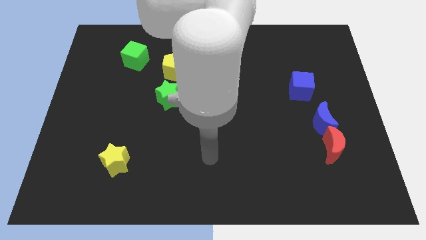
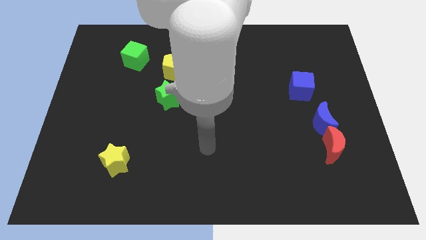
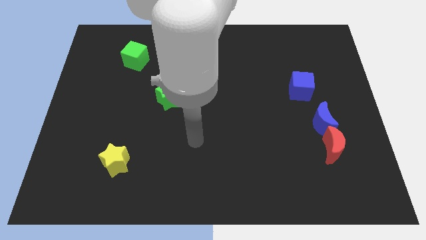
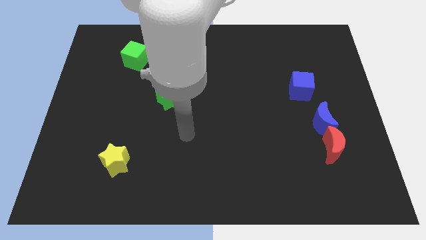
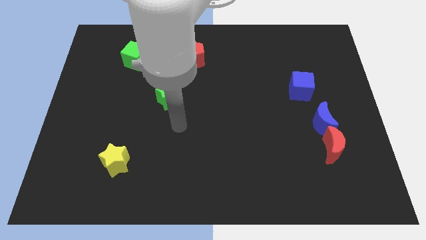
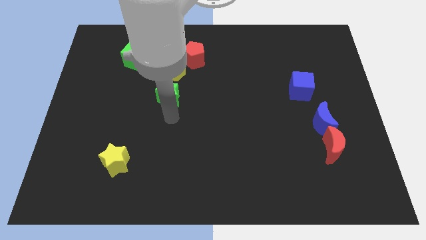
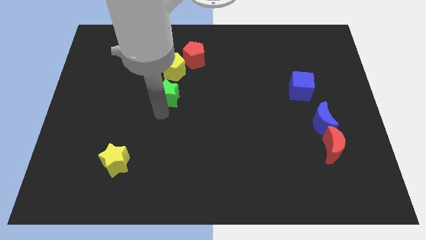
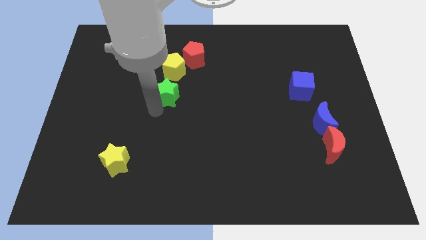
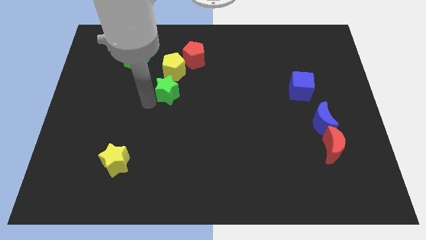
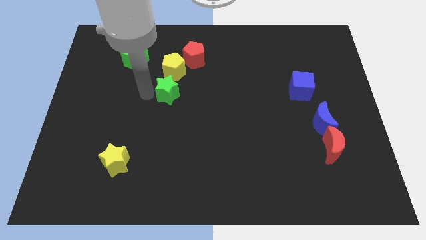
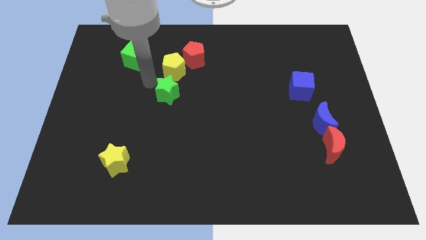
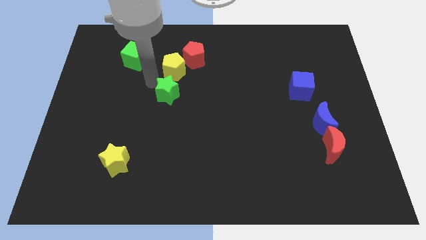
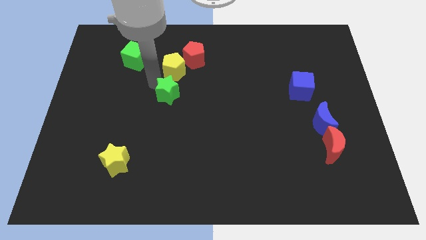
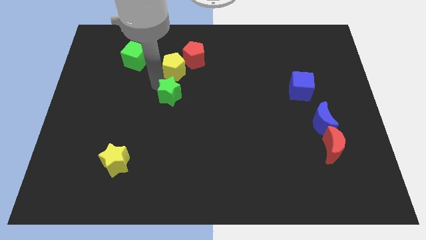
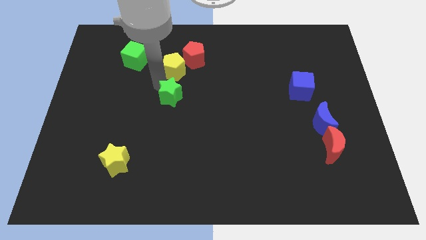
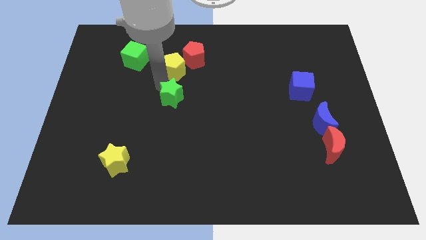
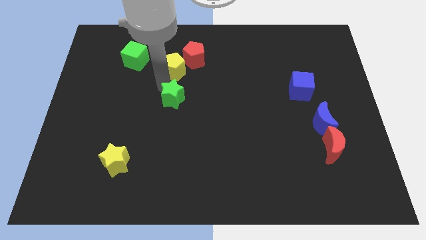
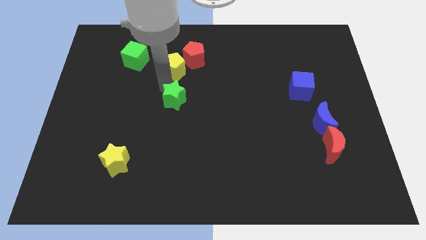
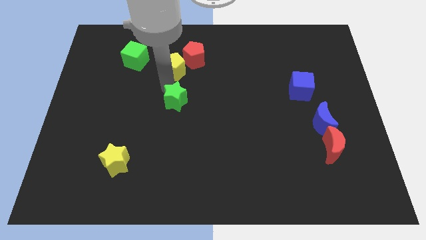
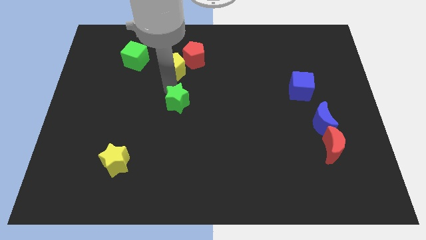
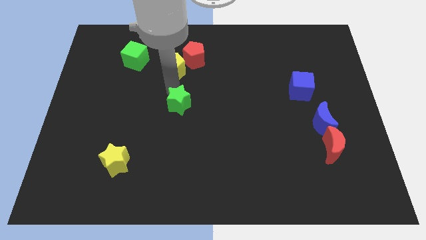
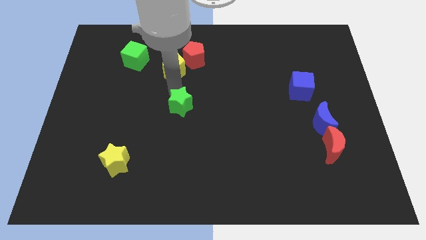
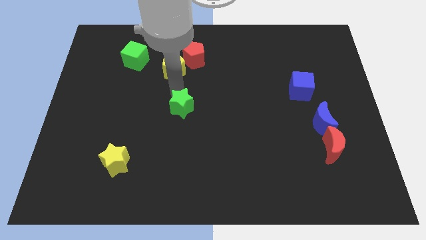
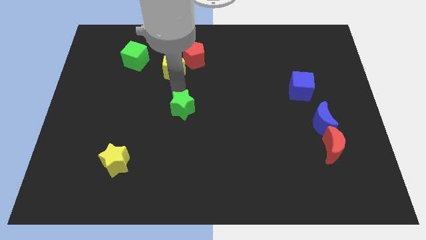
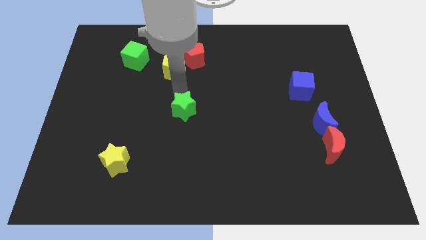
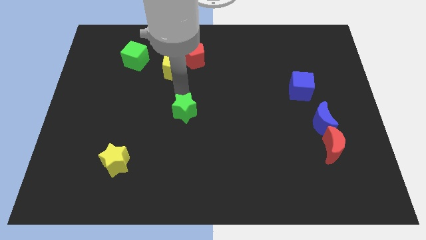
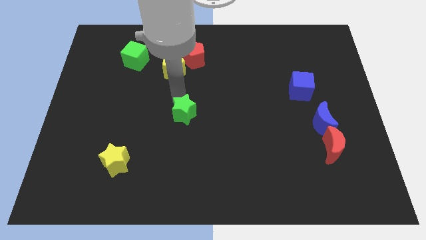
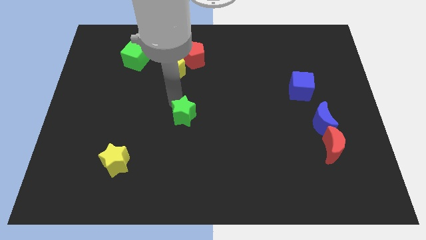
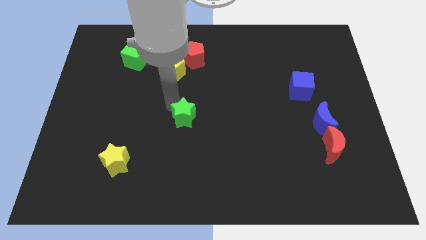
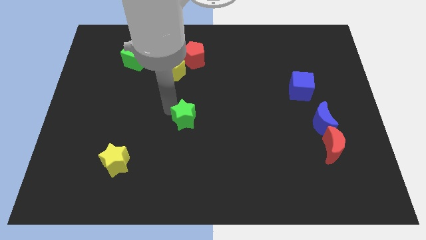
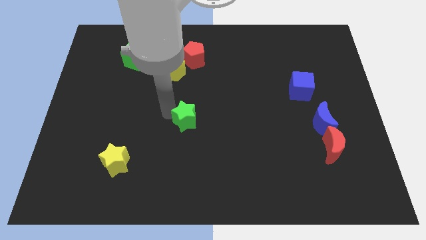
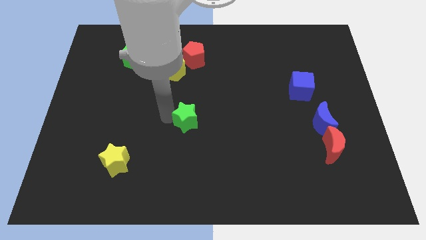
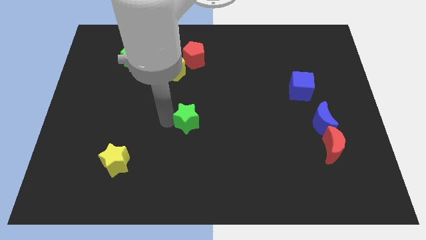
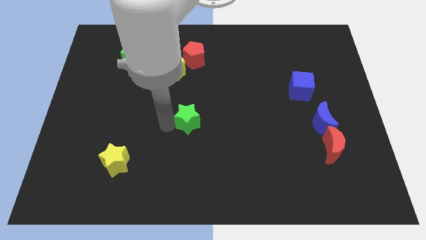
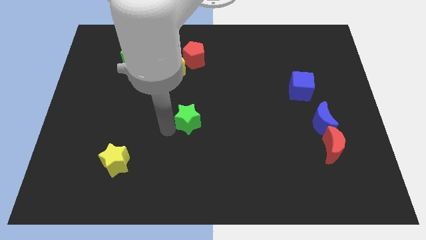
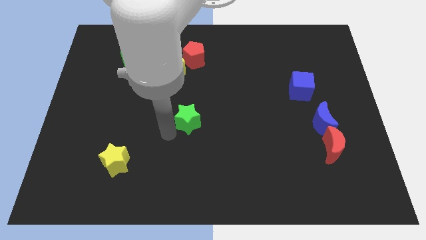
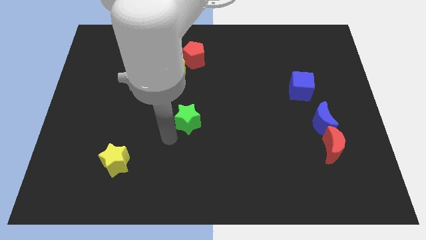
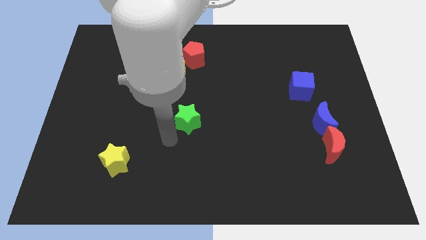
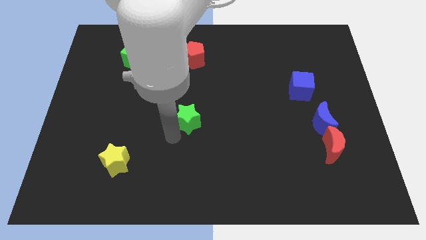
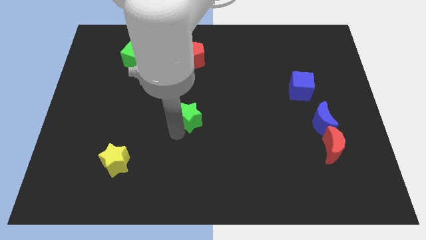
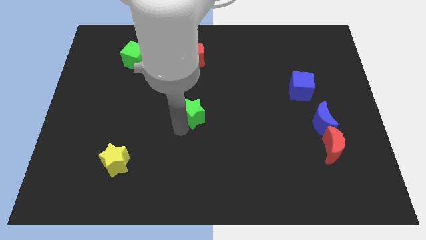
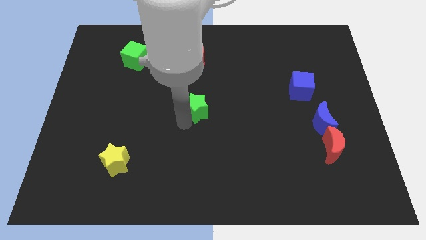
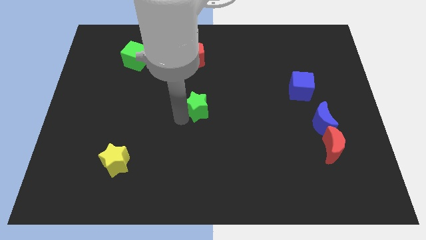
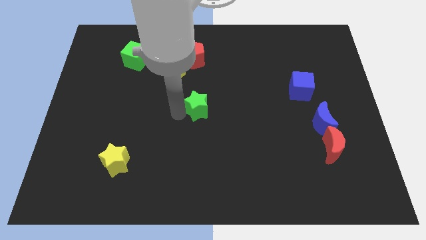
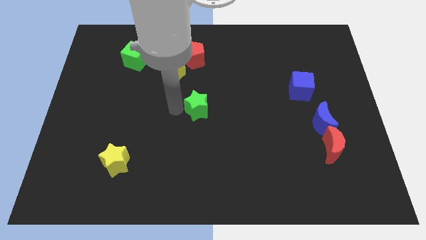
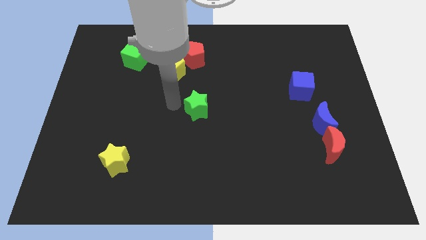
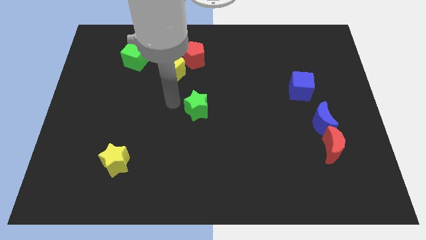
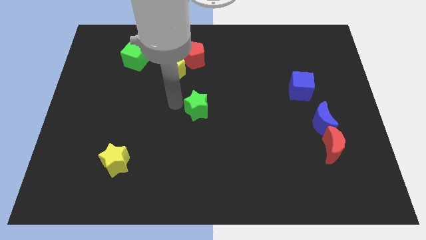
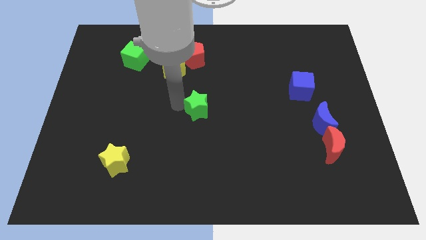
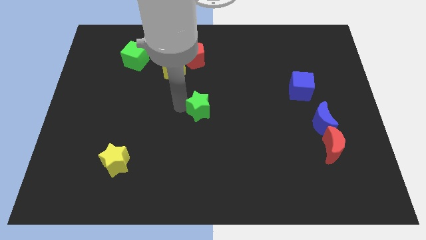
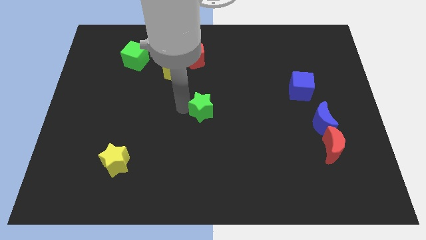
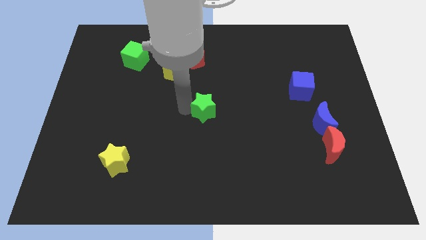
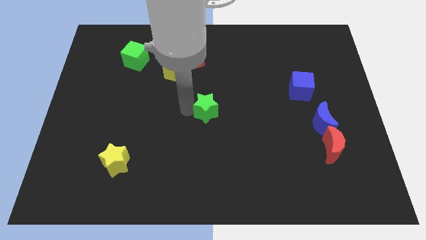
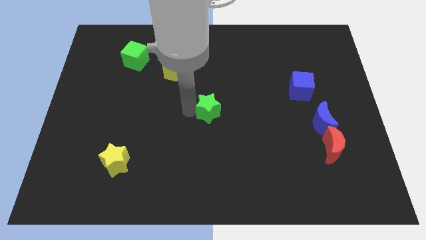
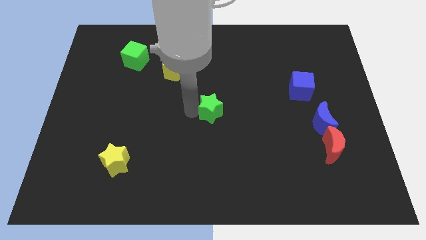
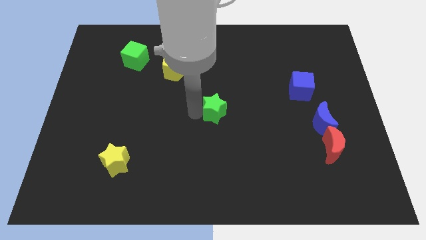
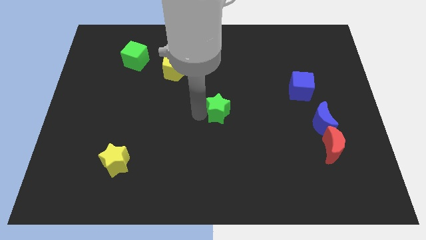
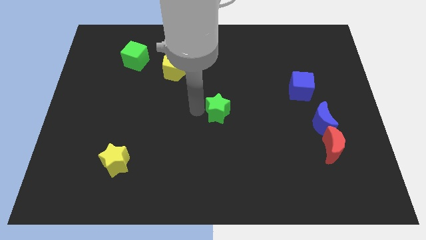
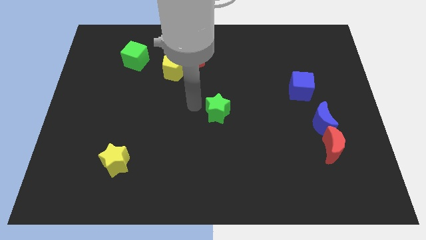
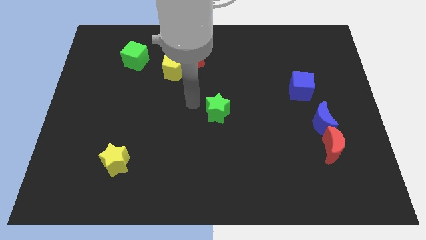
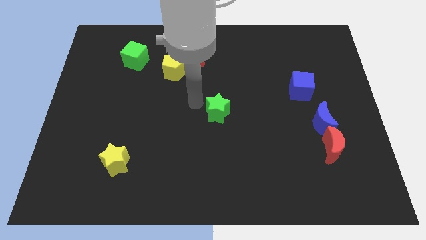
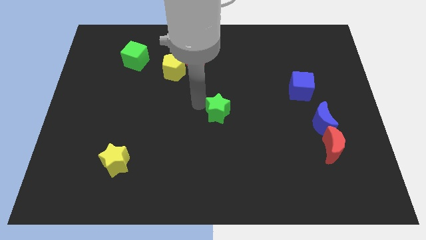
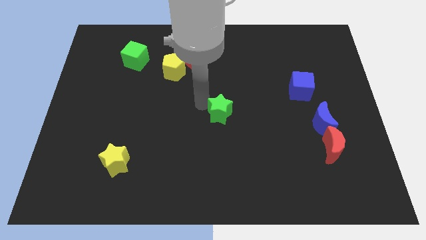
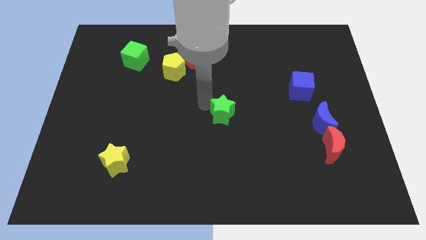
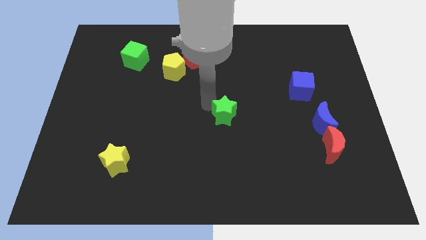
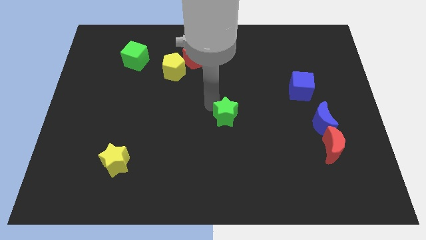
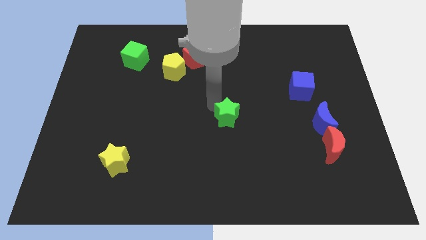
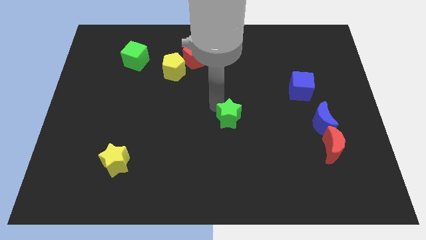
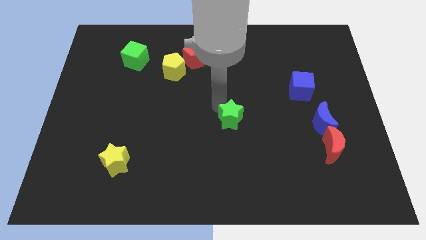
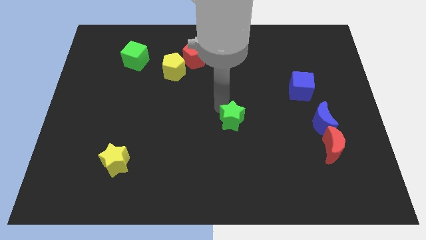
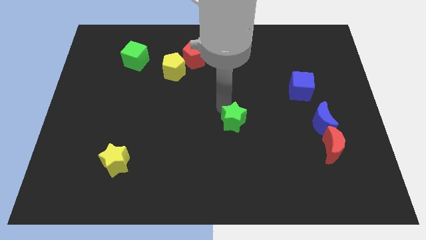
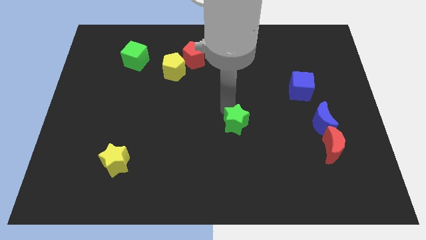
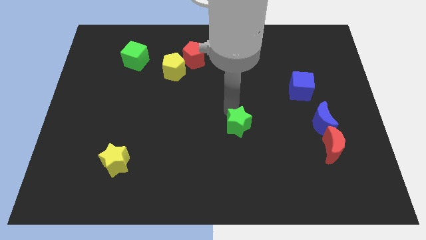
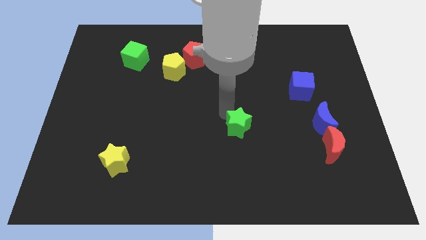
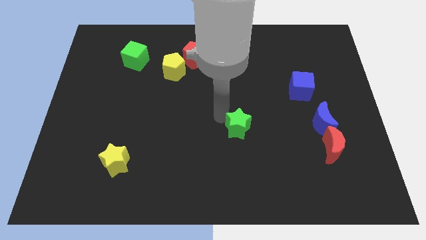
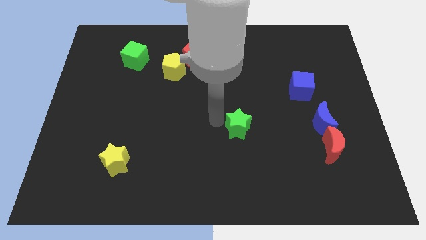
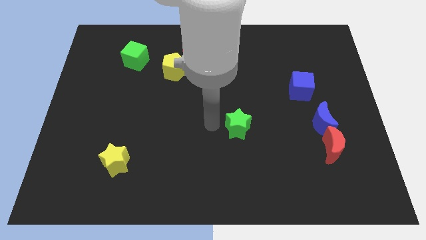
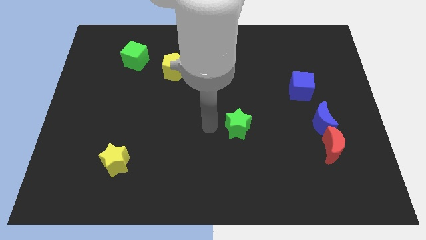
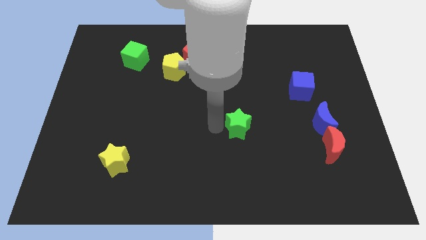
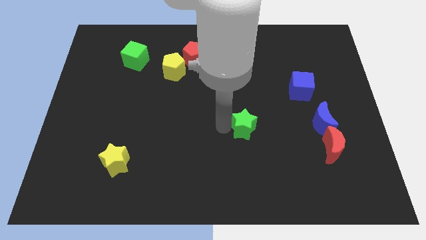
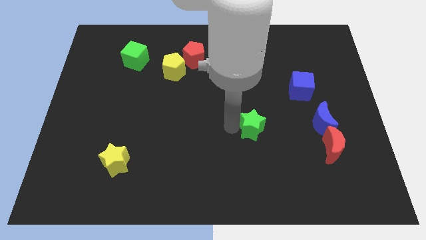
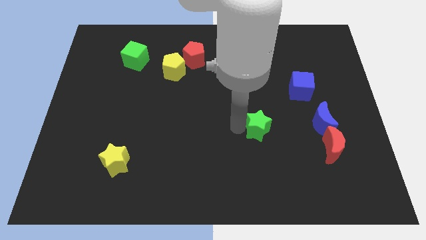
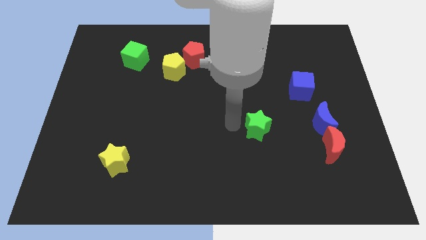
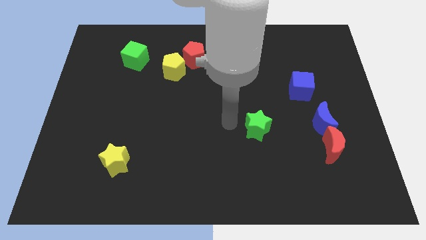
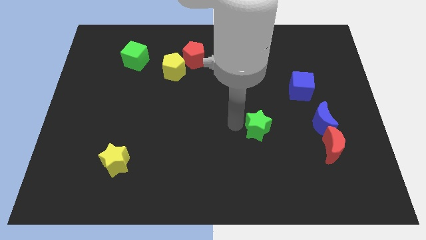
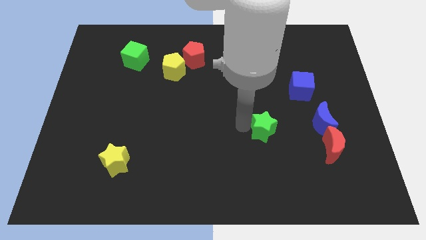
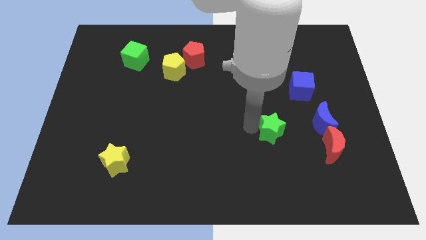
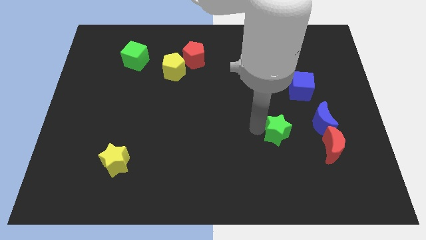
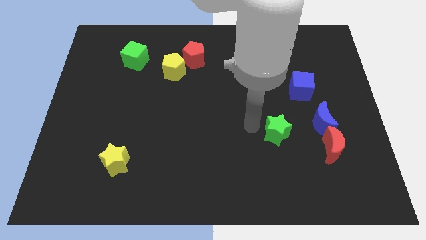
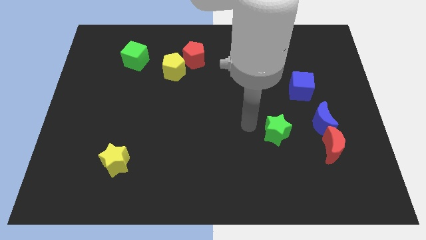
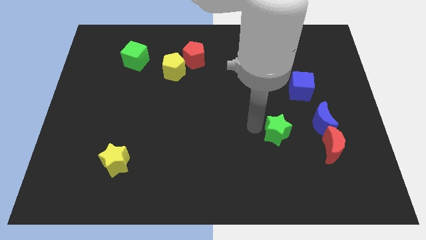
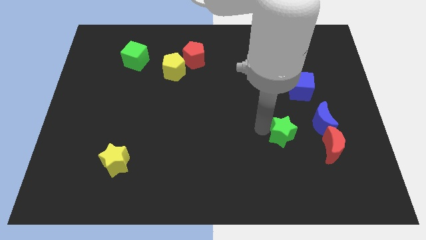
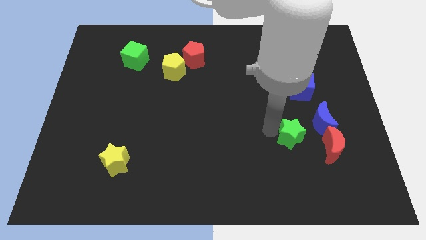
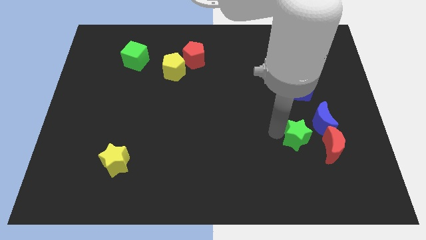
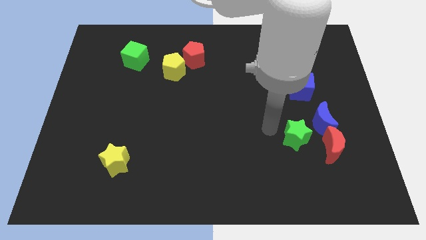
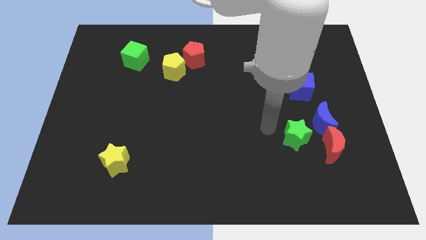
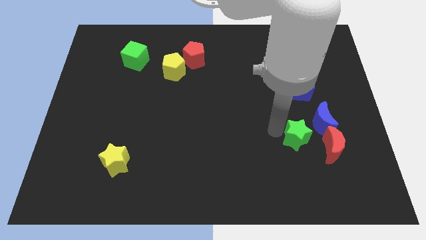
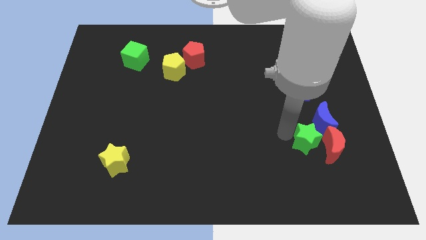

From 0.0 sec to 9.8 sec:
put the green star close to the red moon
